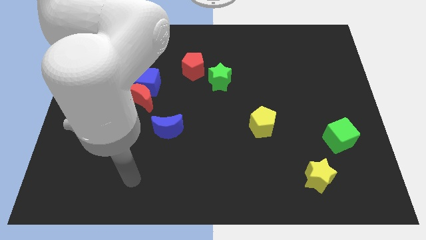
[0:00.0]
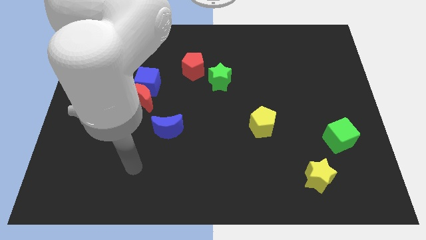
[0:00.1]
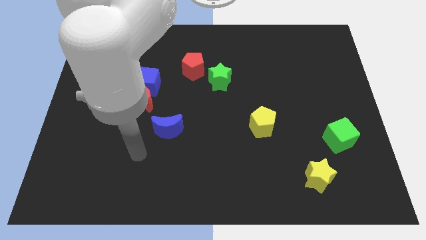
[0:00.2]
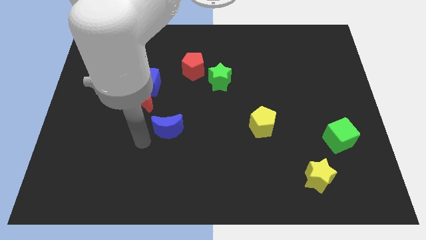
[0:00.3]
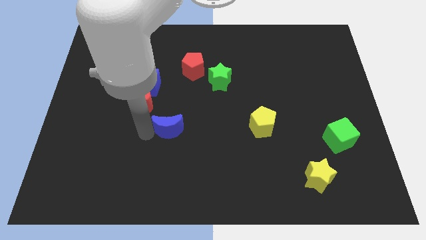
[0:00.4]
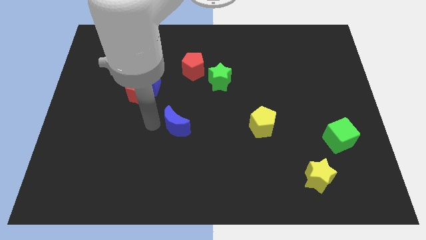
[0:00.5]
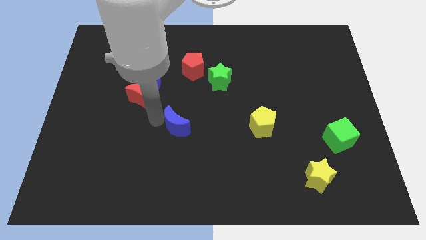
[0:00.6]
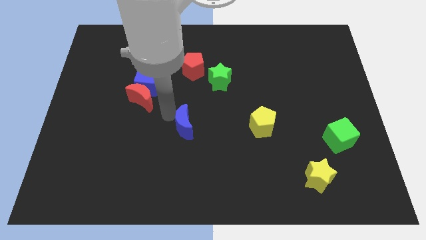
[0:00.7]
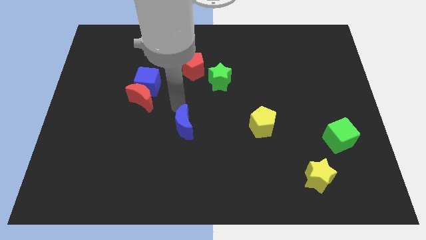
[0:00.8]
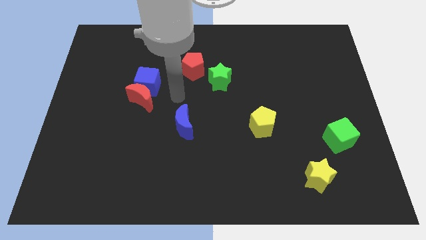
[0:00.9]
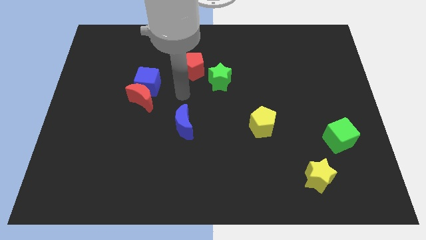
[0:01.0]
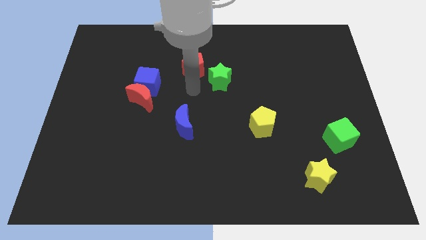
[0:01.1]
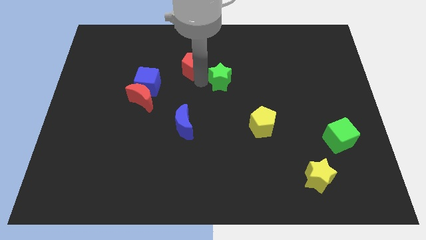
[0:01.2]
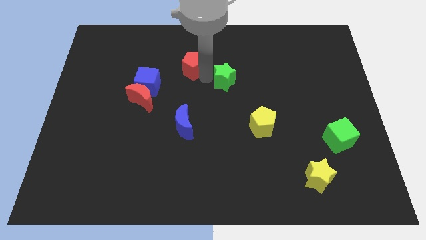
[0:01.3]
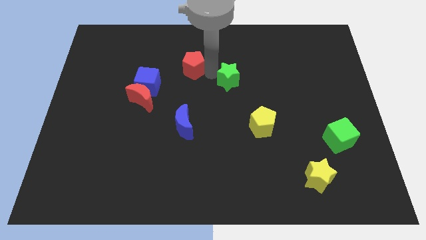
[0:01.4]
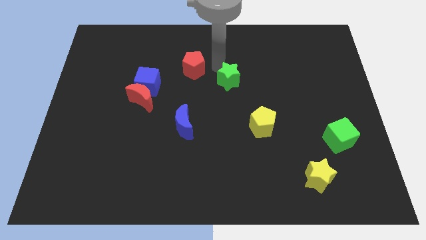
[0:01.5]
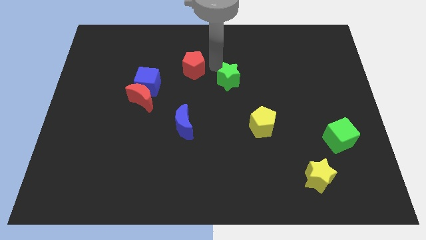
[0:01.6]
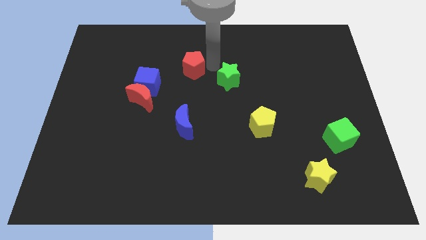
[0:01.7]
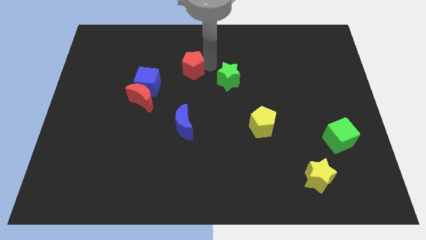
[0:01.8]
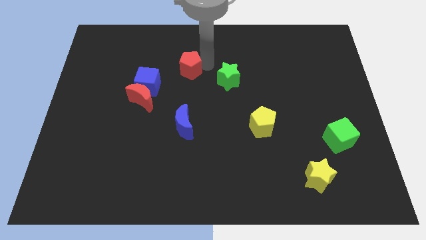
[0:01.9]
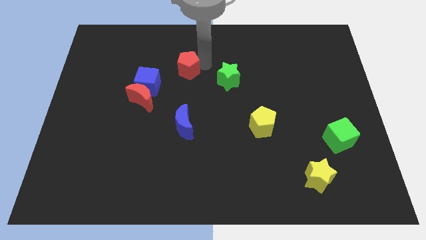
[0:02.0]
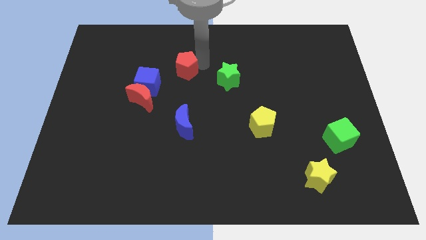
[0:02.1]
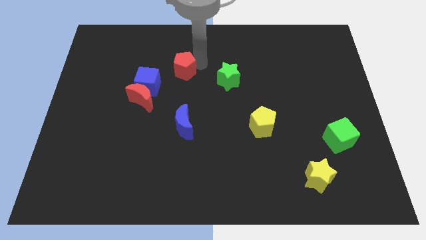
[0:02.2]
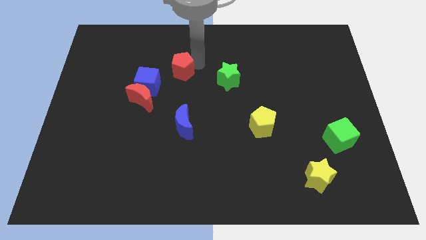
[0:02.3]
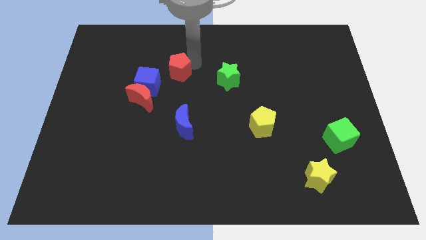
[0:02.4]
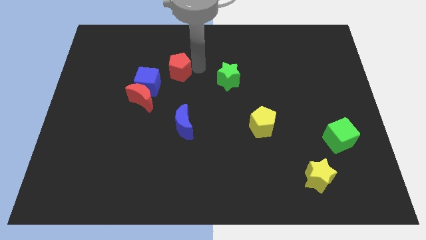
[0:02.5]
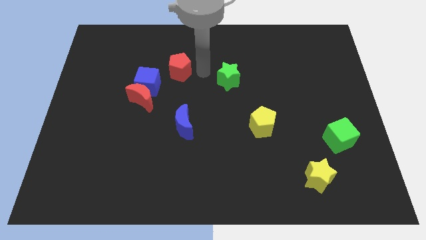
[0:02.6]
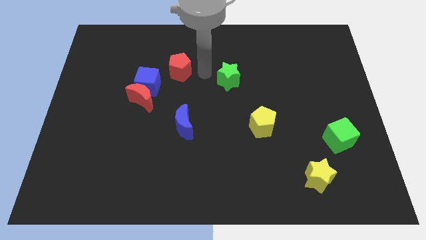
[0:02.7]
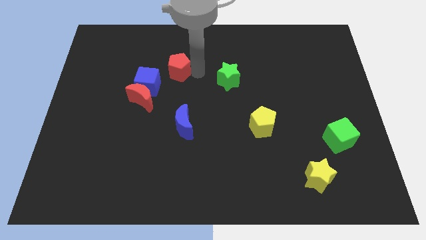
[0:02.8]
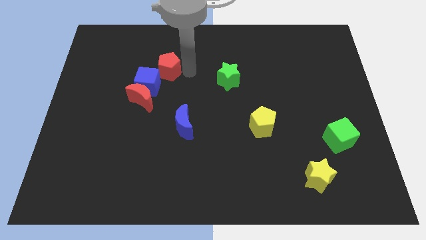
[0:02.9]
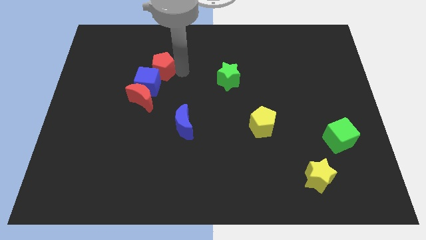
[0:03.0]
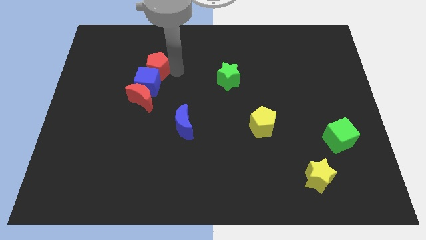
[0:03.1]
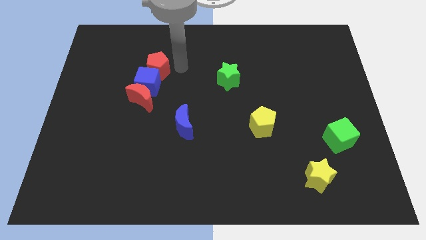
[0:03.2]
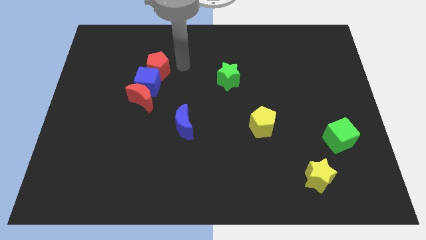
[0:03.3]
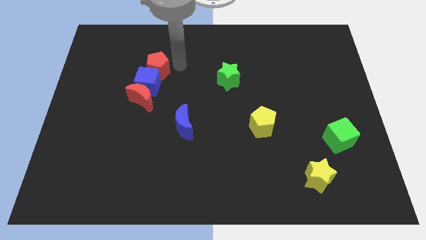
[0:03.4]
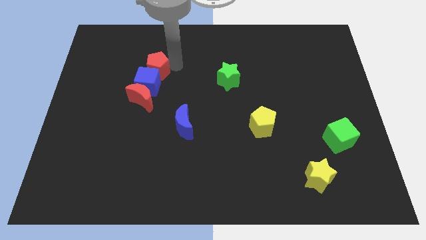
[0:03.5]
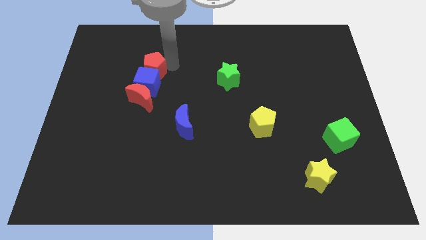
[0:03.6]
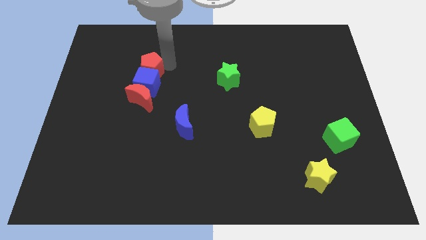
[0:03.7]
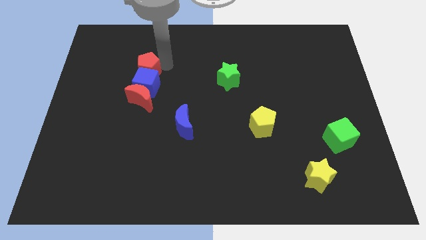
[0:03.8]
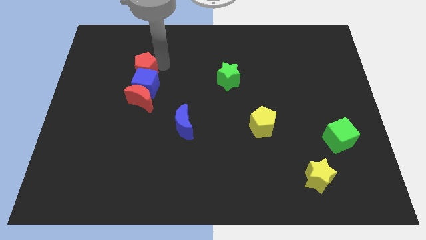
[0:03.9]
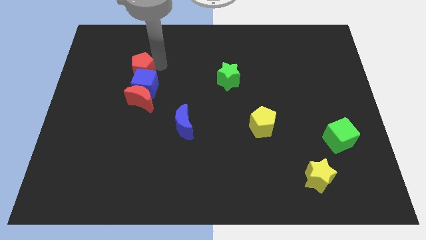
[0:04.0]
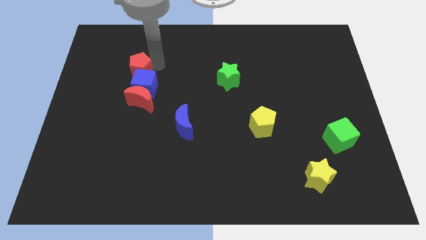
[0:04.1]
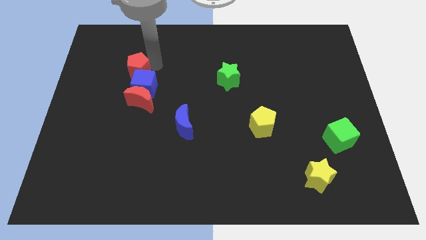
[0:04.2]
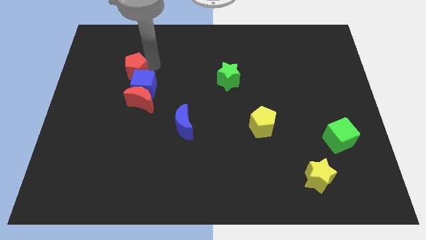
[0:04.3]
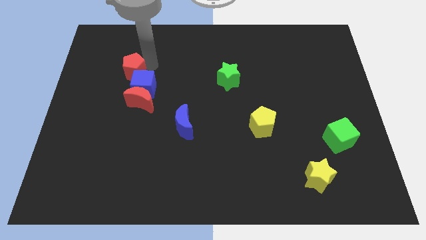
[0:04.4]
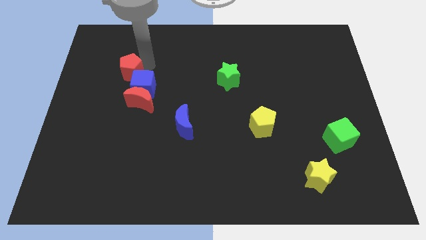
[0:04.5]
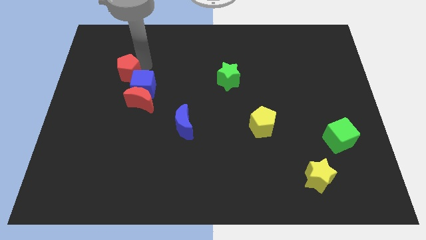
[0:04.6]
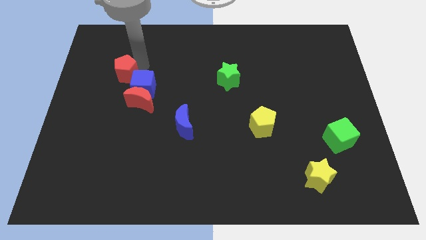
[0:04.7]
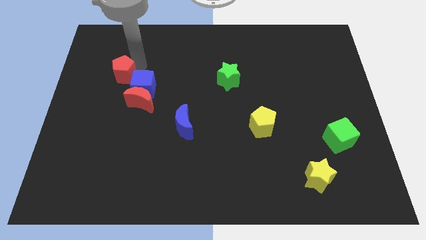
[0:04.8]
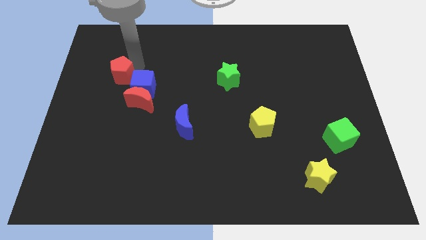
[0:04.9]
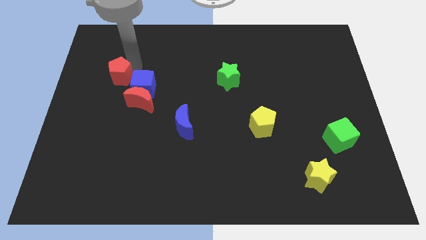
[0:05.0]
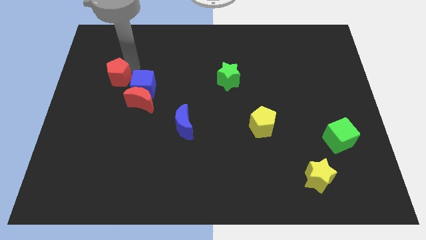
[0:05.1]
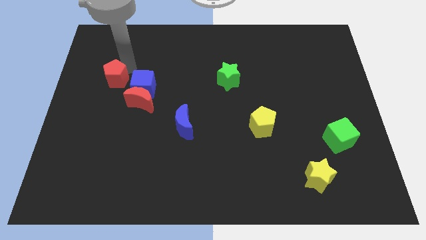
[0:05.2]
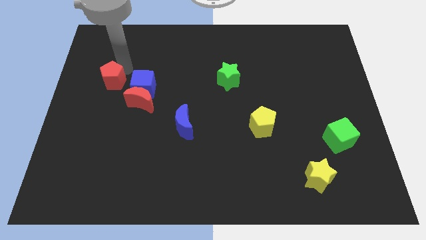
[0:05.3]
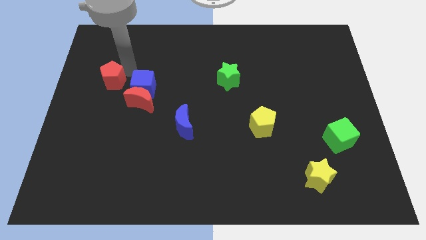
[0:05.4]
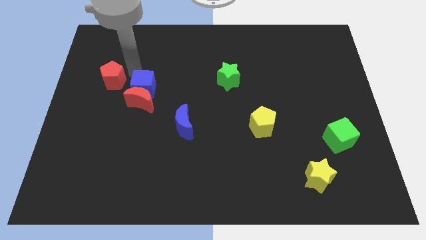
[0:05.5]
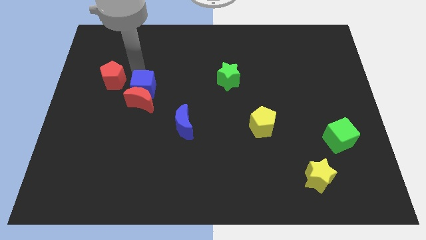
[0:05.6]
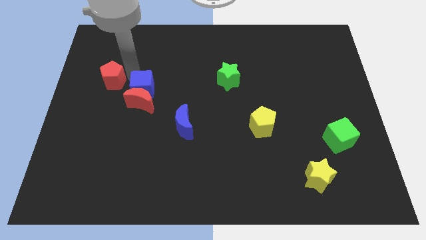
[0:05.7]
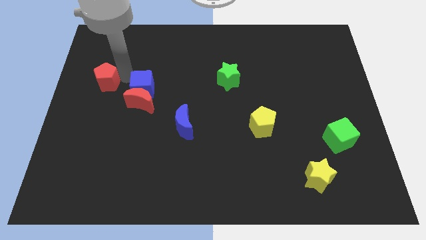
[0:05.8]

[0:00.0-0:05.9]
slide the red pentagon to the left side of the board

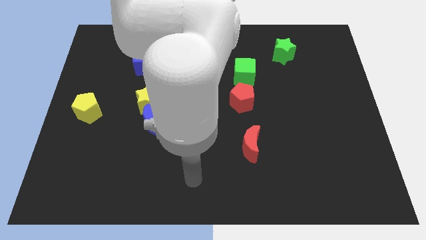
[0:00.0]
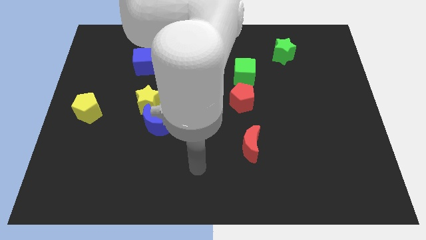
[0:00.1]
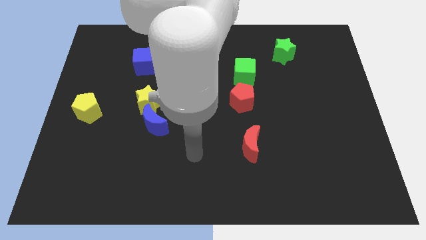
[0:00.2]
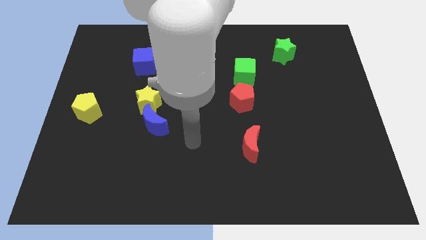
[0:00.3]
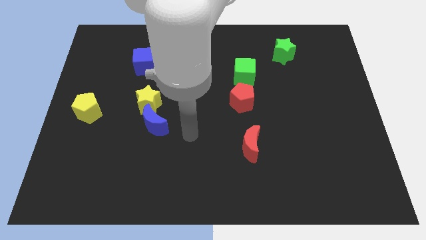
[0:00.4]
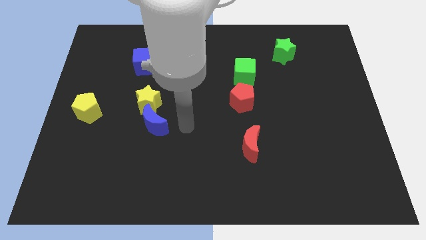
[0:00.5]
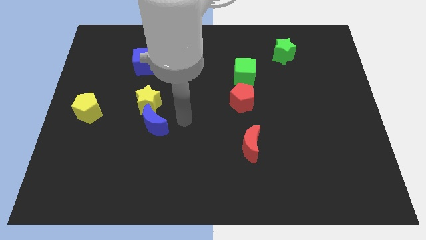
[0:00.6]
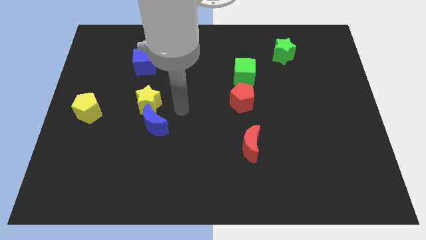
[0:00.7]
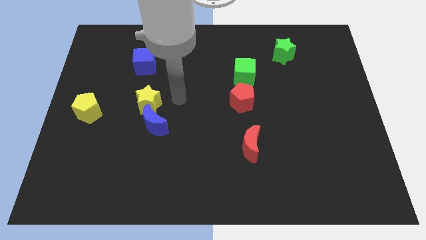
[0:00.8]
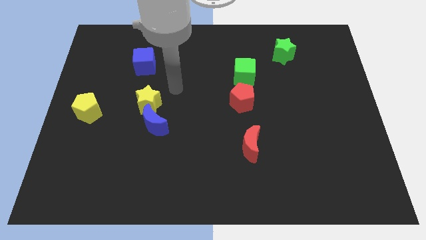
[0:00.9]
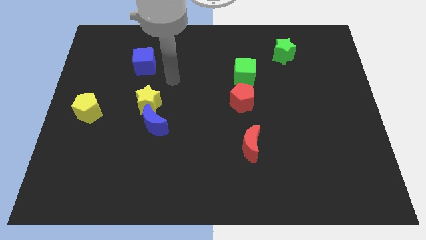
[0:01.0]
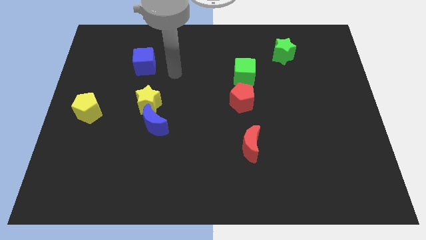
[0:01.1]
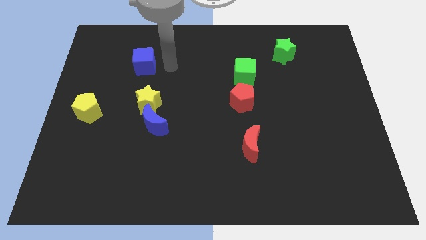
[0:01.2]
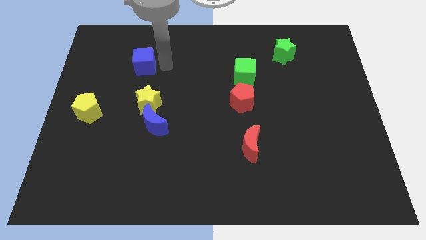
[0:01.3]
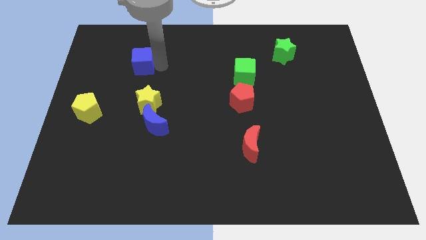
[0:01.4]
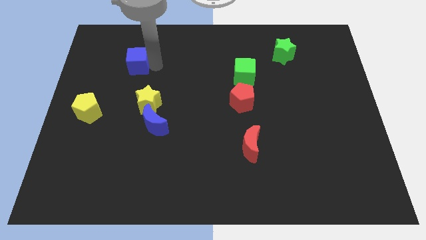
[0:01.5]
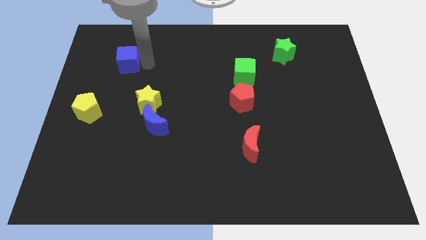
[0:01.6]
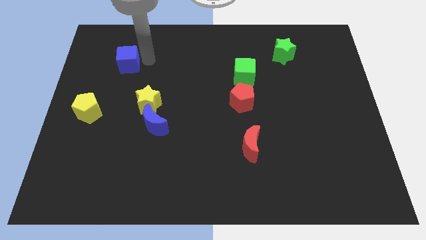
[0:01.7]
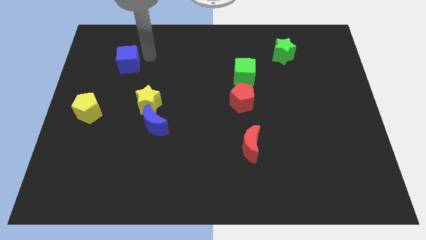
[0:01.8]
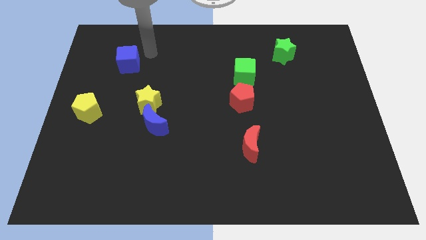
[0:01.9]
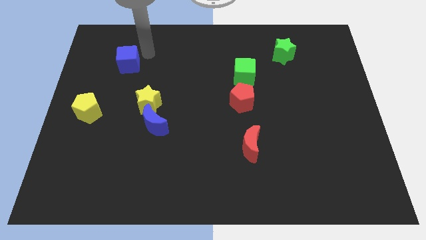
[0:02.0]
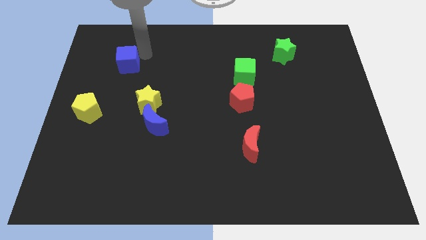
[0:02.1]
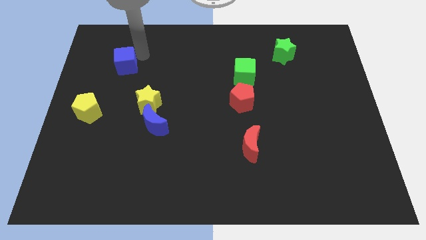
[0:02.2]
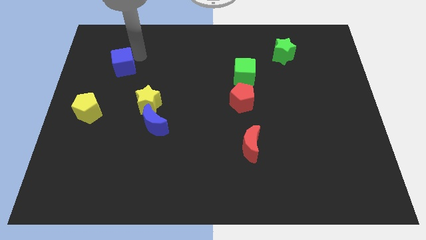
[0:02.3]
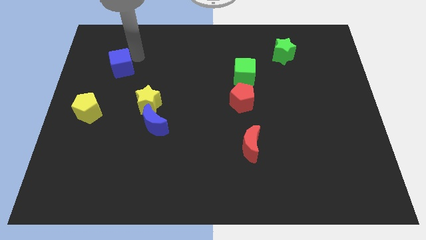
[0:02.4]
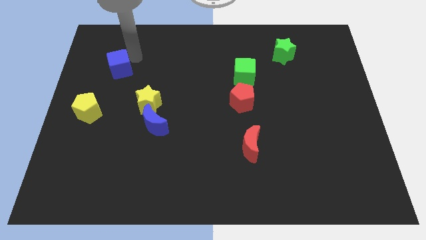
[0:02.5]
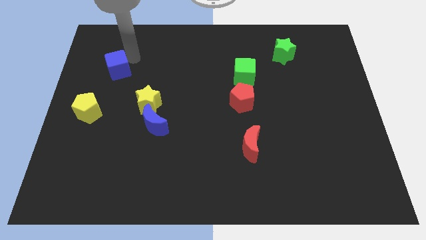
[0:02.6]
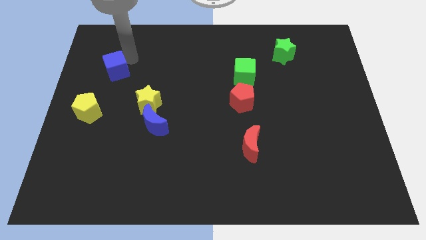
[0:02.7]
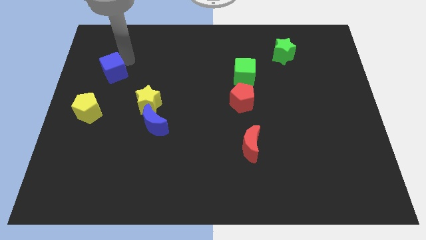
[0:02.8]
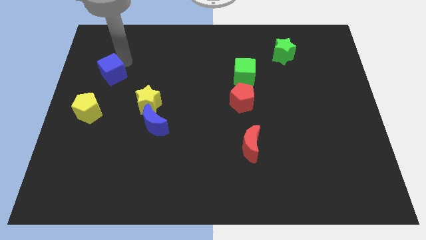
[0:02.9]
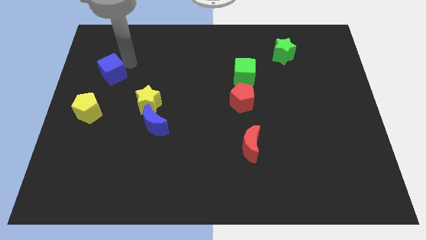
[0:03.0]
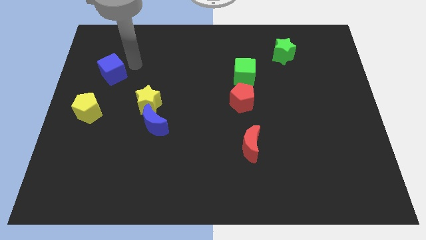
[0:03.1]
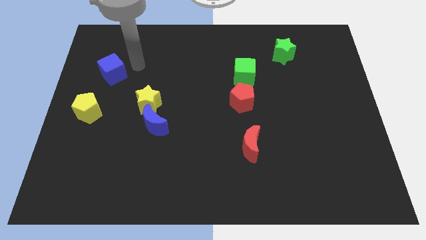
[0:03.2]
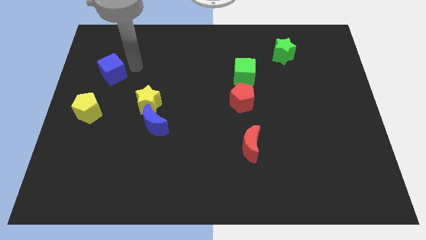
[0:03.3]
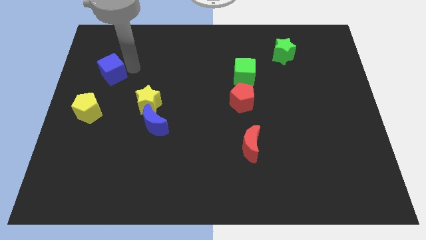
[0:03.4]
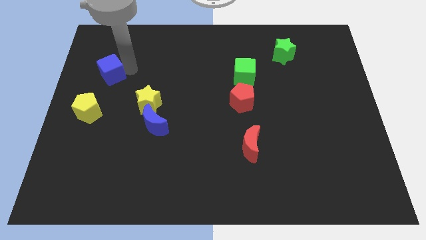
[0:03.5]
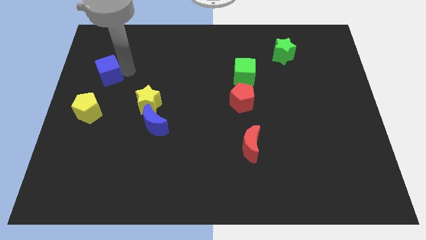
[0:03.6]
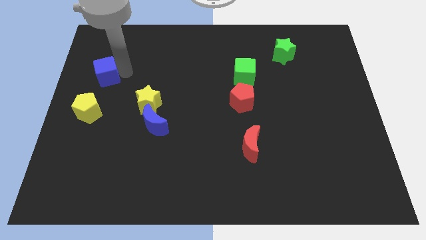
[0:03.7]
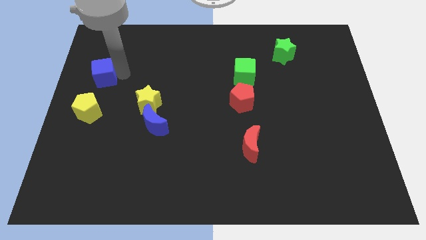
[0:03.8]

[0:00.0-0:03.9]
move the blue cube to the left side
